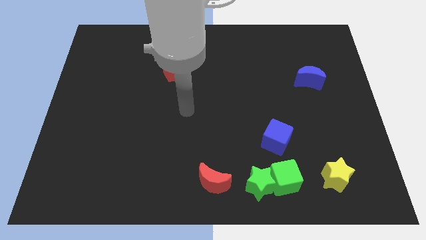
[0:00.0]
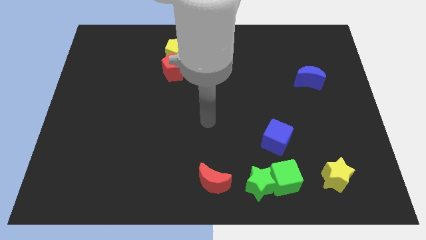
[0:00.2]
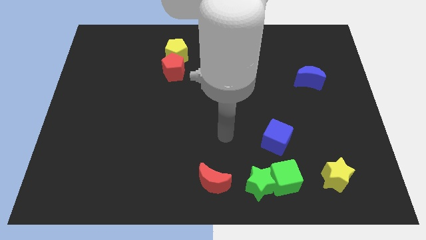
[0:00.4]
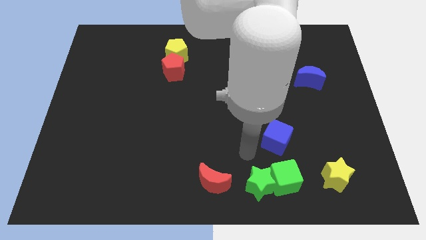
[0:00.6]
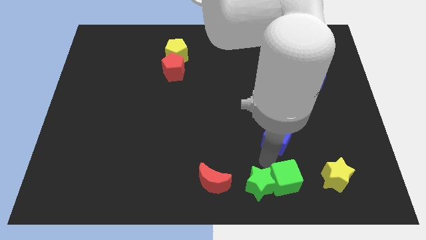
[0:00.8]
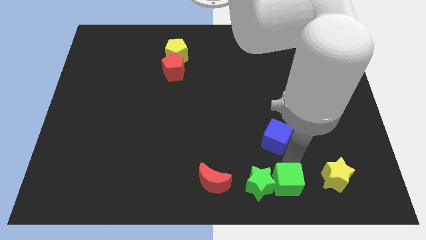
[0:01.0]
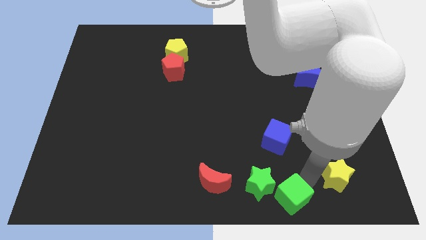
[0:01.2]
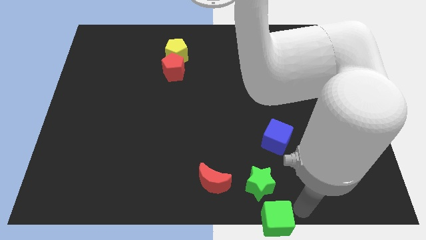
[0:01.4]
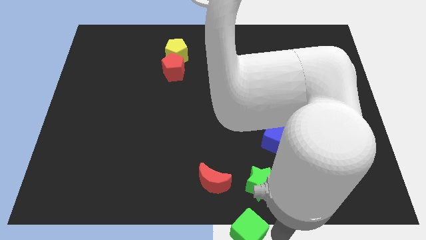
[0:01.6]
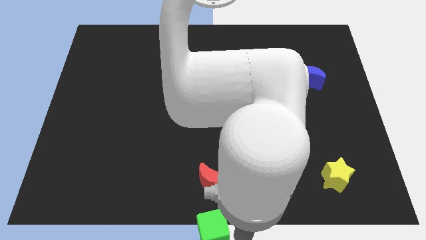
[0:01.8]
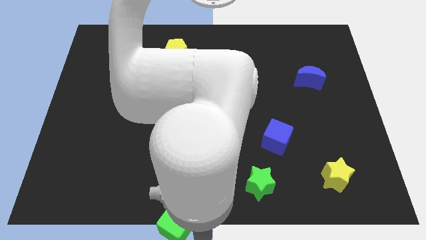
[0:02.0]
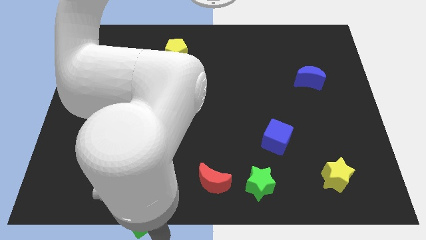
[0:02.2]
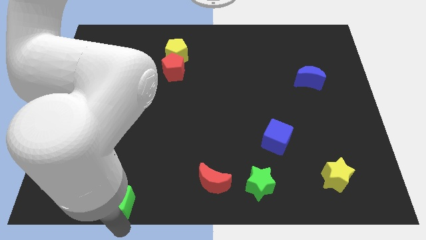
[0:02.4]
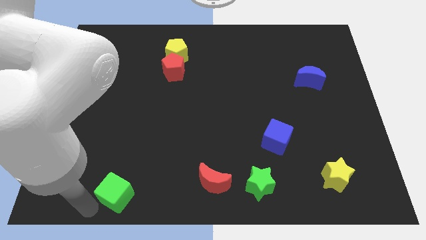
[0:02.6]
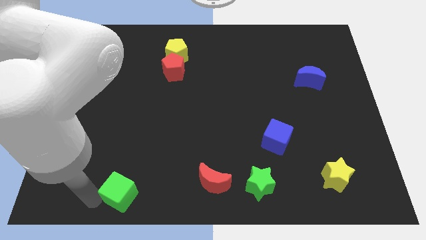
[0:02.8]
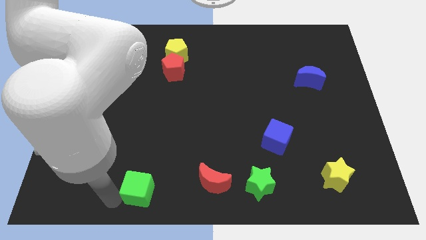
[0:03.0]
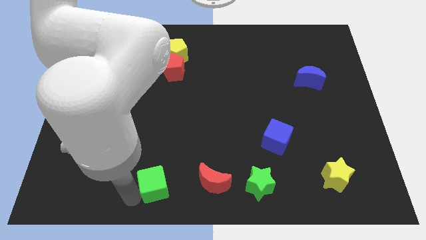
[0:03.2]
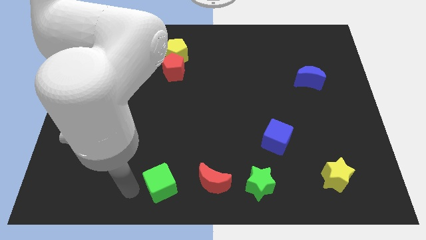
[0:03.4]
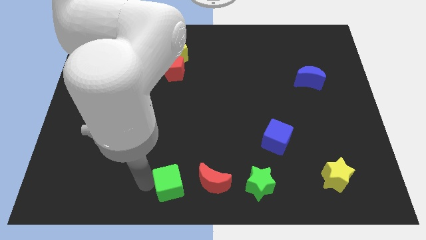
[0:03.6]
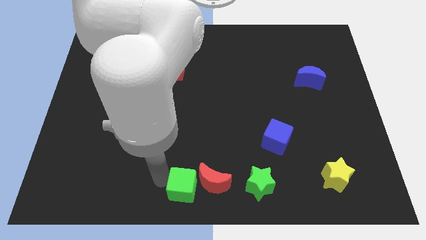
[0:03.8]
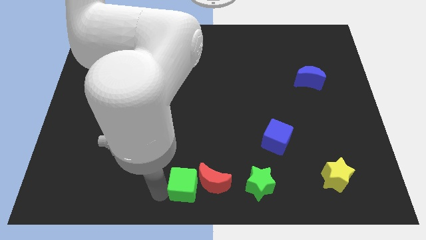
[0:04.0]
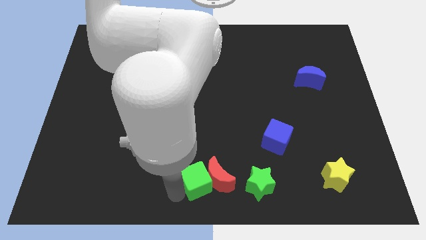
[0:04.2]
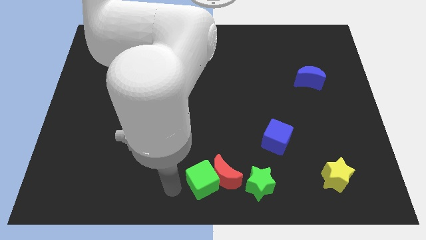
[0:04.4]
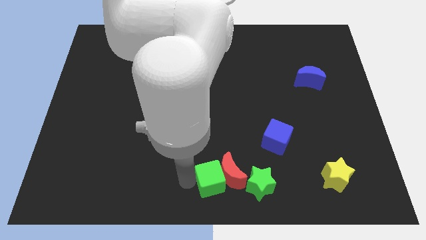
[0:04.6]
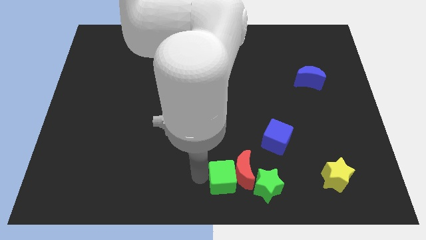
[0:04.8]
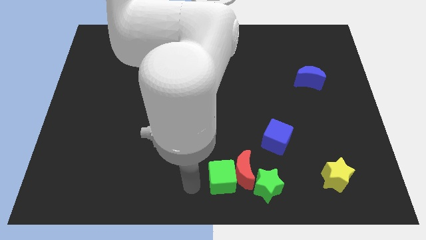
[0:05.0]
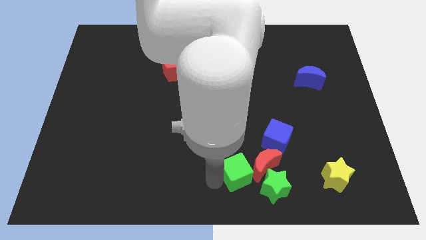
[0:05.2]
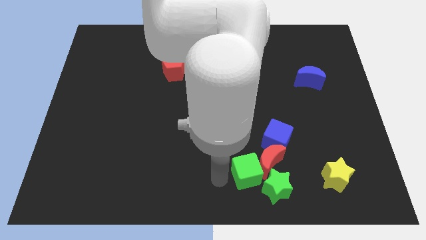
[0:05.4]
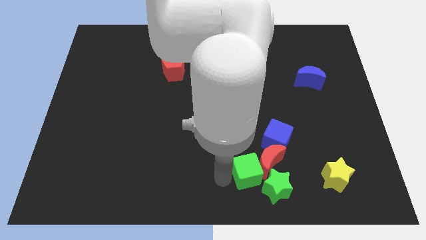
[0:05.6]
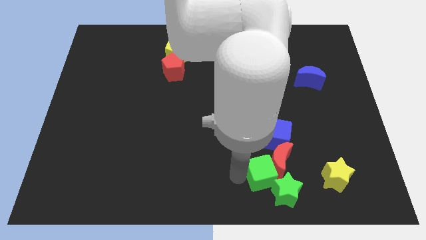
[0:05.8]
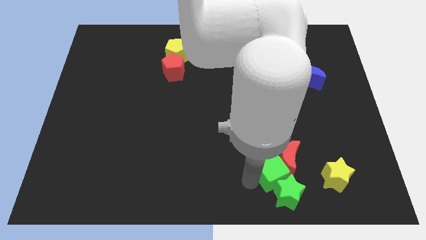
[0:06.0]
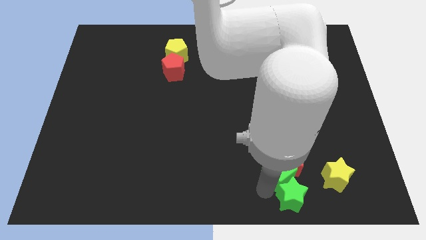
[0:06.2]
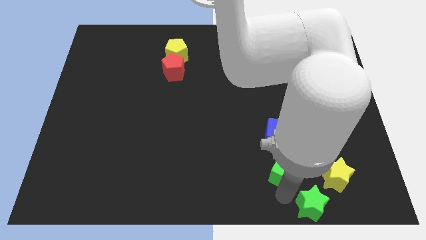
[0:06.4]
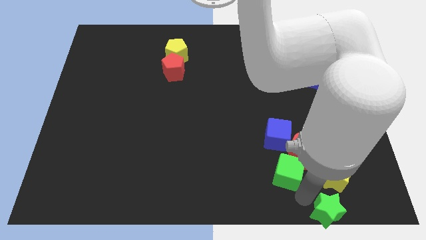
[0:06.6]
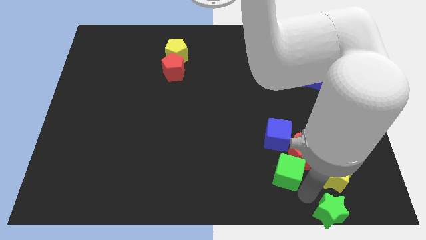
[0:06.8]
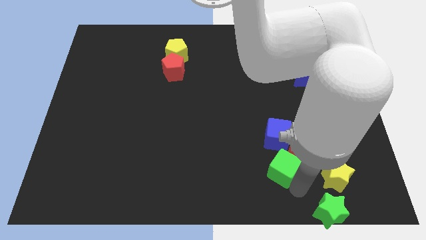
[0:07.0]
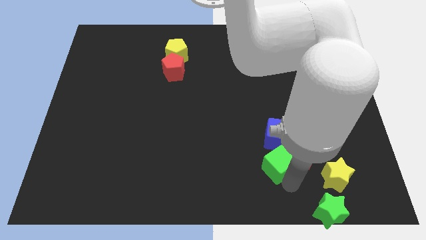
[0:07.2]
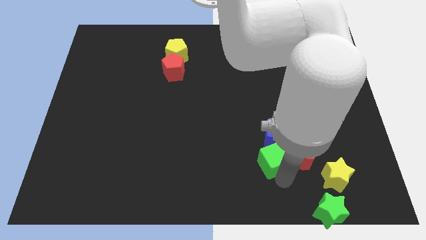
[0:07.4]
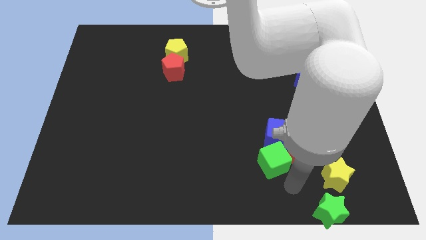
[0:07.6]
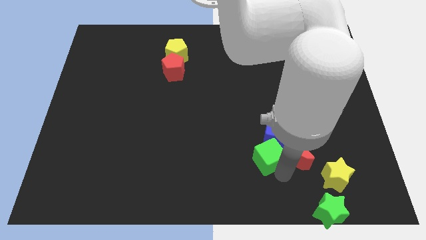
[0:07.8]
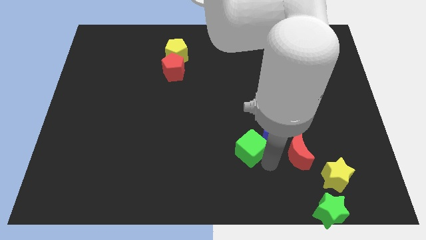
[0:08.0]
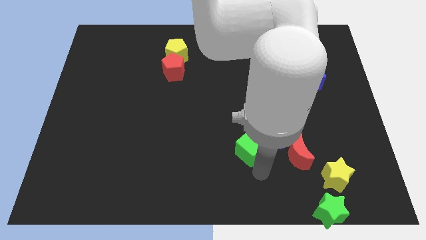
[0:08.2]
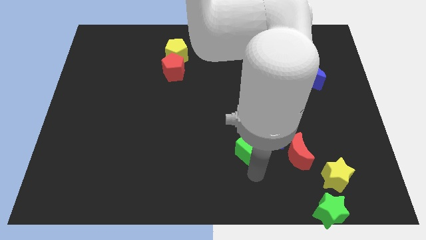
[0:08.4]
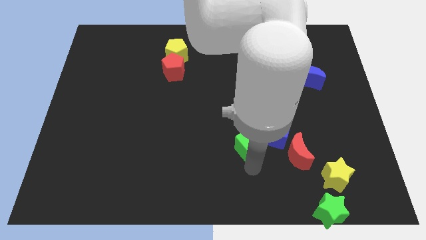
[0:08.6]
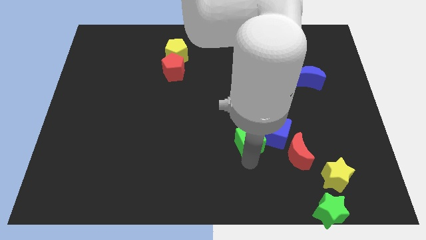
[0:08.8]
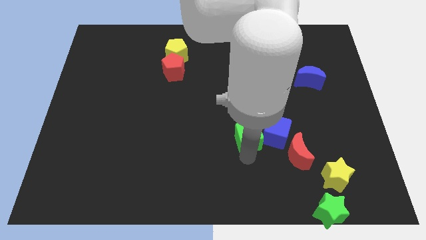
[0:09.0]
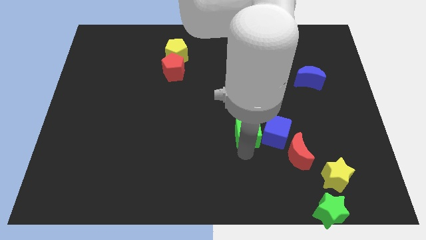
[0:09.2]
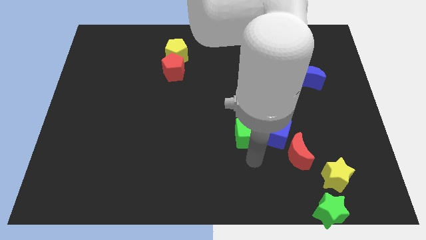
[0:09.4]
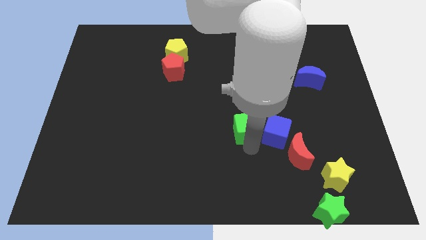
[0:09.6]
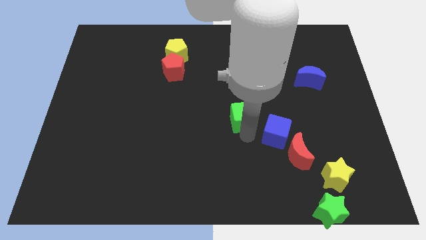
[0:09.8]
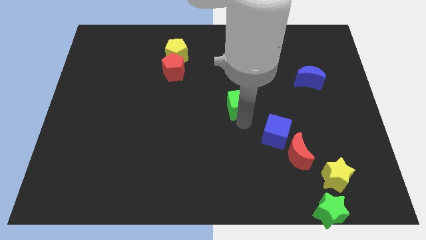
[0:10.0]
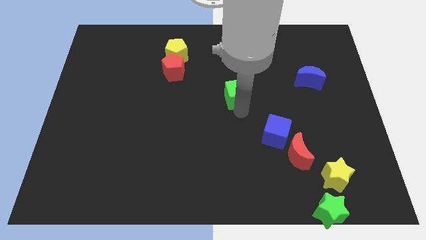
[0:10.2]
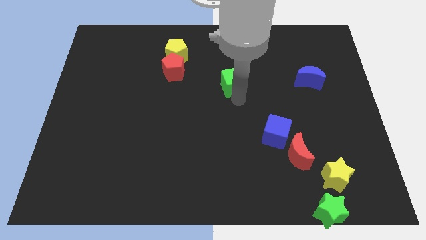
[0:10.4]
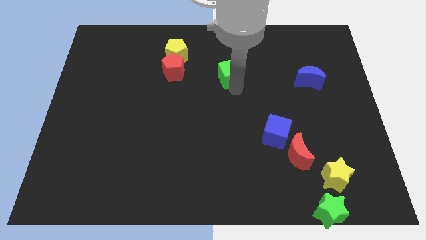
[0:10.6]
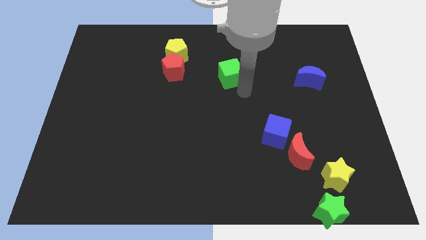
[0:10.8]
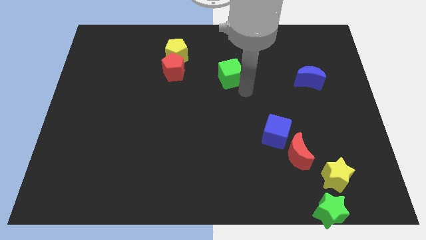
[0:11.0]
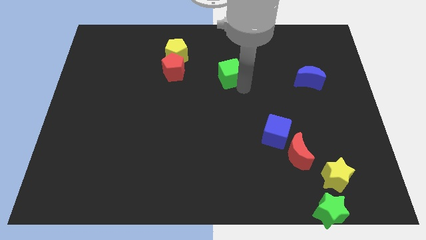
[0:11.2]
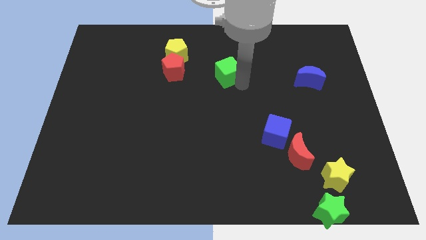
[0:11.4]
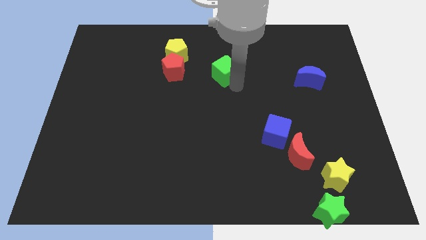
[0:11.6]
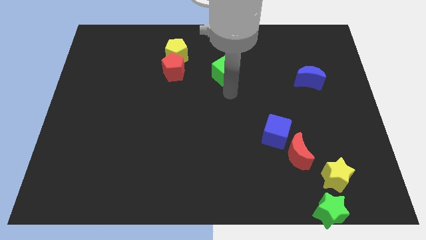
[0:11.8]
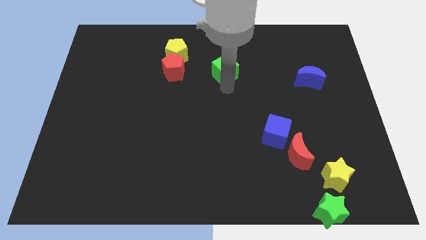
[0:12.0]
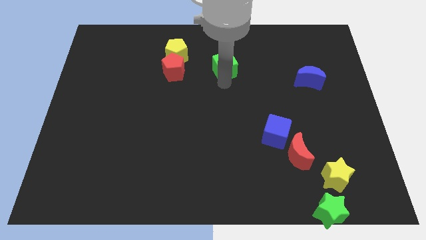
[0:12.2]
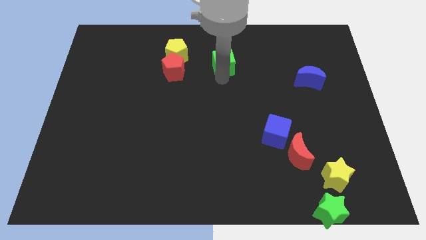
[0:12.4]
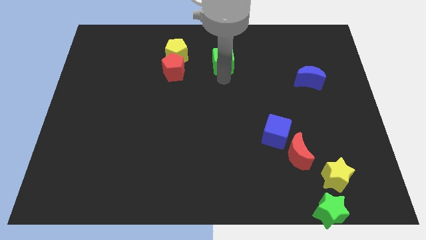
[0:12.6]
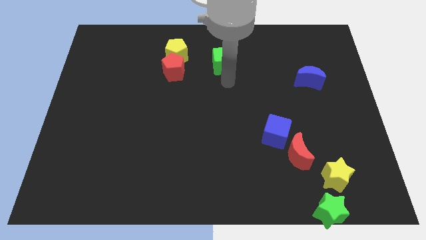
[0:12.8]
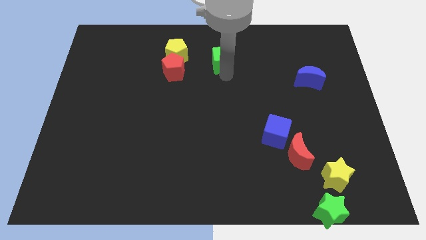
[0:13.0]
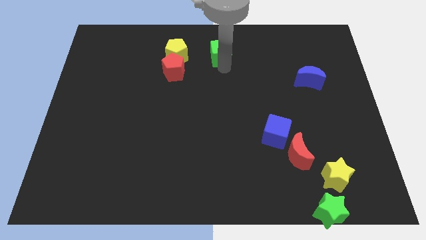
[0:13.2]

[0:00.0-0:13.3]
push the green cube to the top
